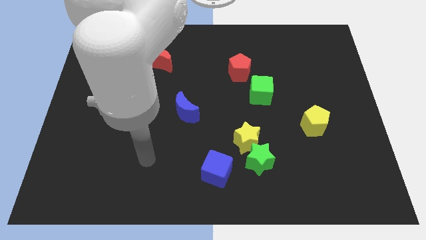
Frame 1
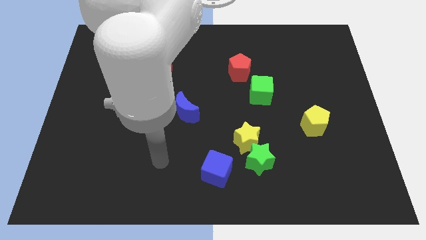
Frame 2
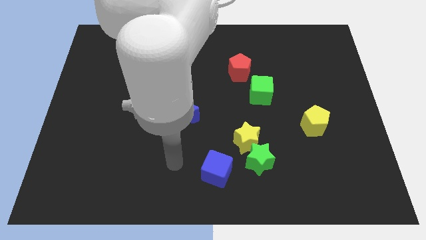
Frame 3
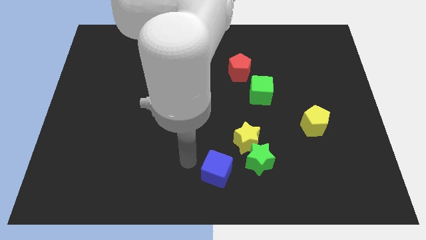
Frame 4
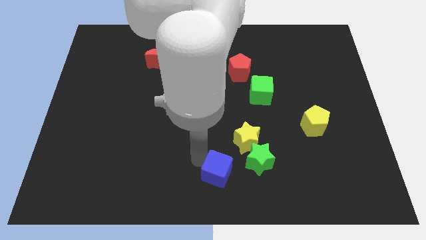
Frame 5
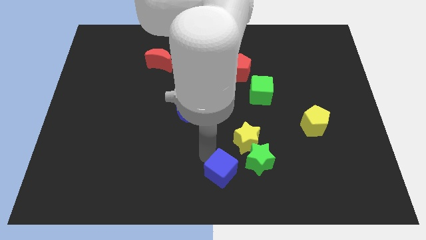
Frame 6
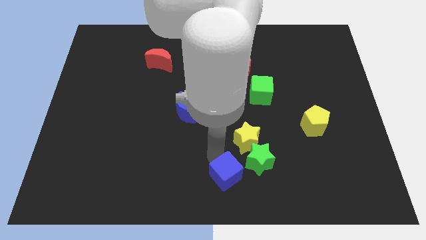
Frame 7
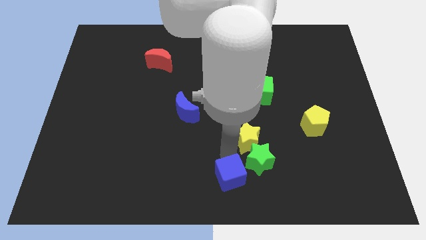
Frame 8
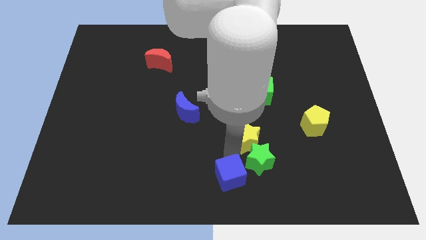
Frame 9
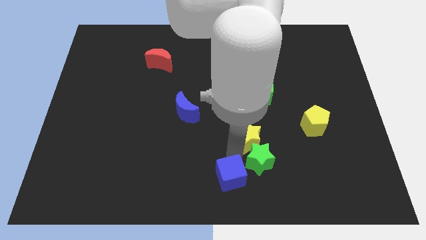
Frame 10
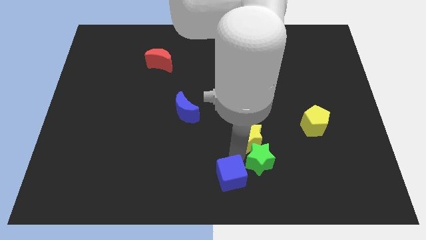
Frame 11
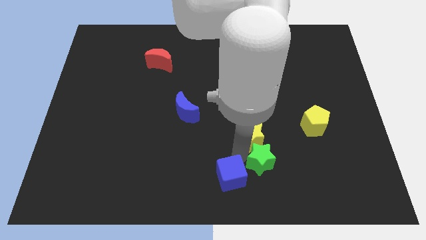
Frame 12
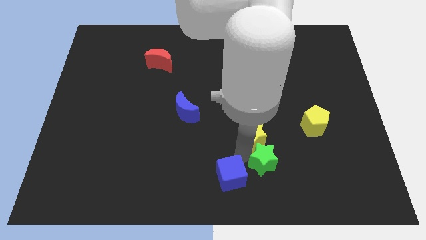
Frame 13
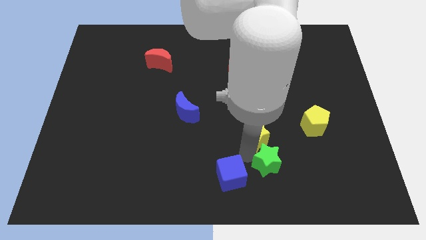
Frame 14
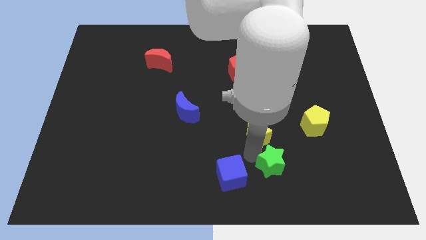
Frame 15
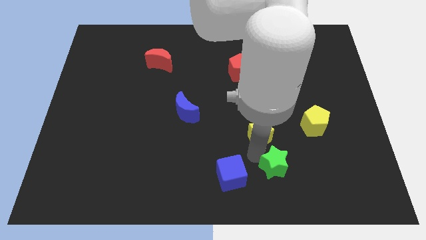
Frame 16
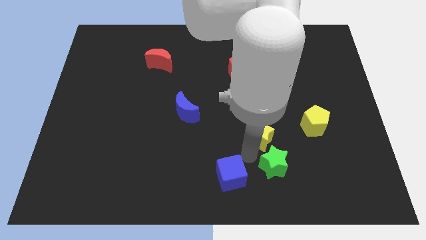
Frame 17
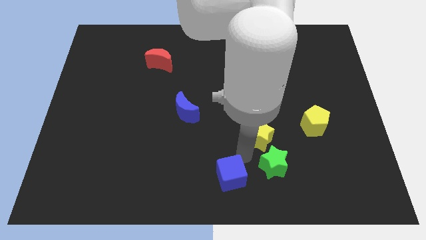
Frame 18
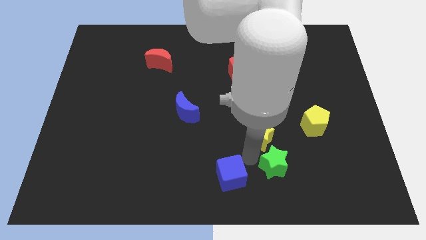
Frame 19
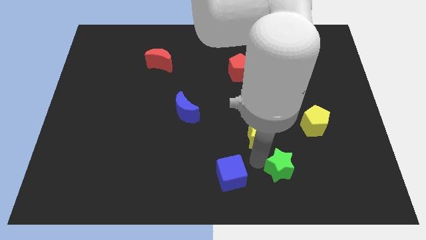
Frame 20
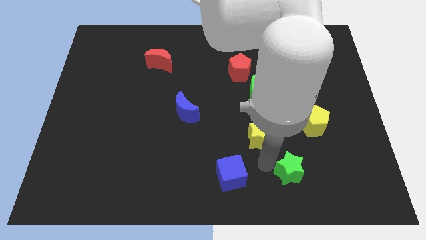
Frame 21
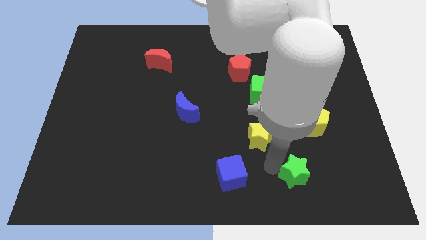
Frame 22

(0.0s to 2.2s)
move the green star away from the yellow star and blue cube

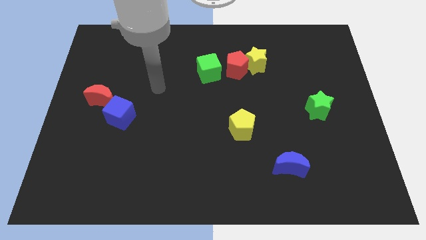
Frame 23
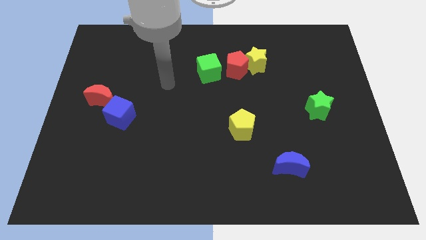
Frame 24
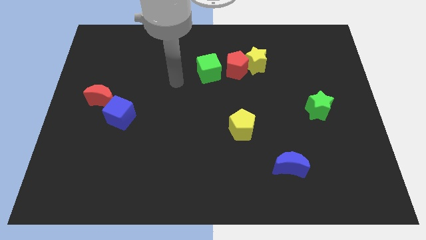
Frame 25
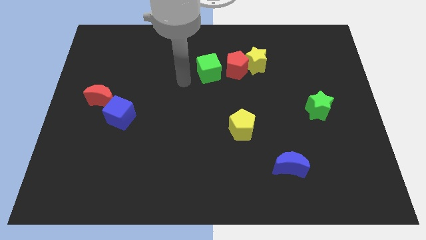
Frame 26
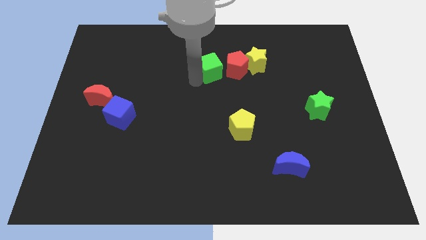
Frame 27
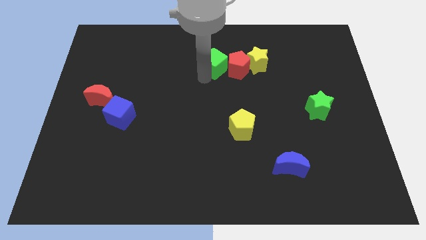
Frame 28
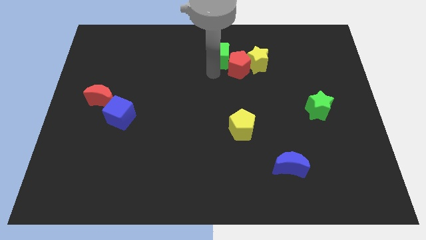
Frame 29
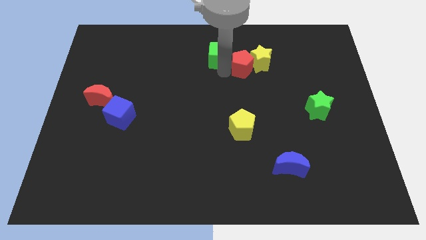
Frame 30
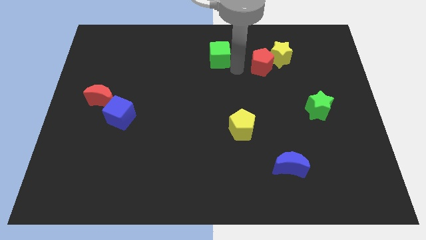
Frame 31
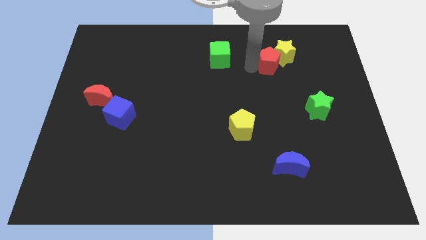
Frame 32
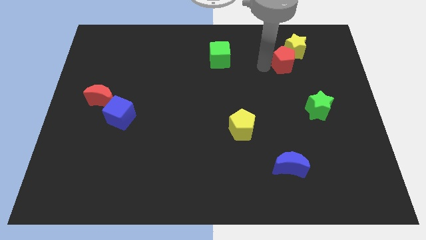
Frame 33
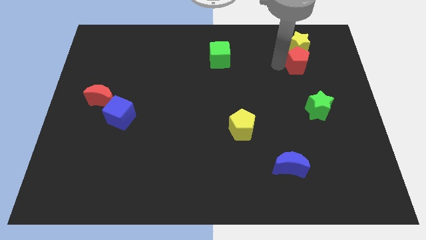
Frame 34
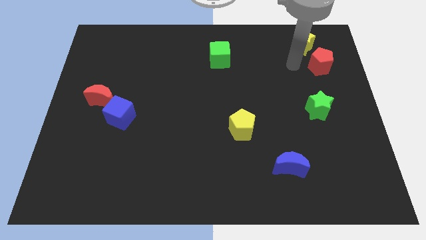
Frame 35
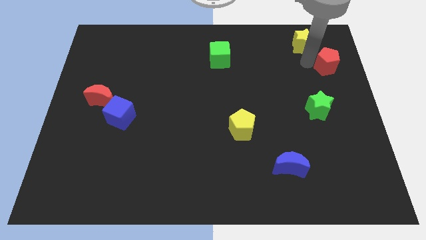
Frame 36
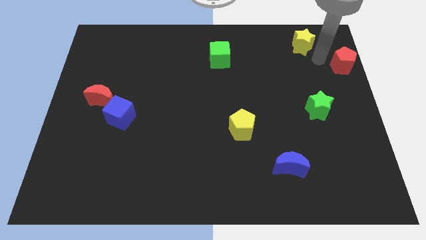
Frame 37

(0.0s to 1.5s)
pull the yellow star apart from the red pentagon

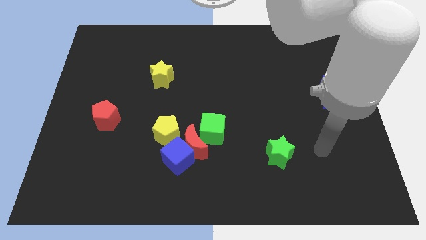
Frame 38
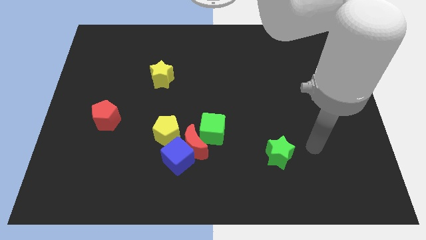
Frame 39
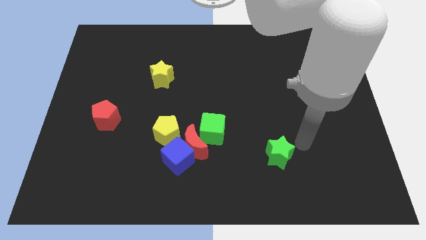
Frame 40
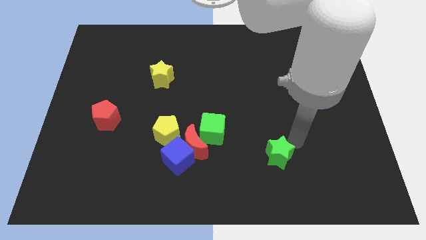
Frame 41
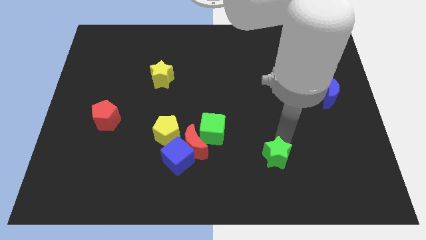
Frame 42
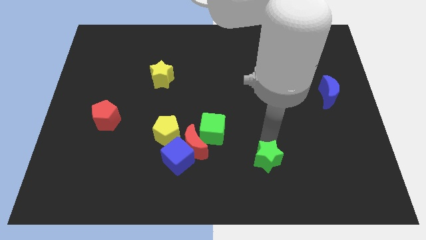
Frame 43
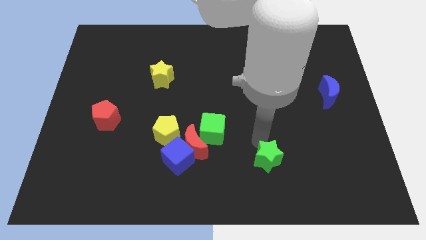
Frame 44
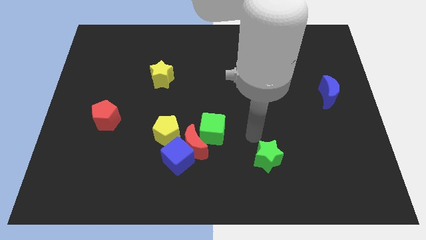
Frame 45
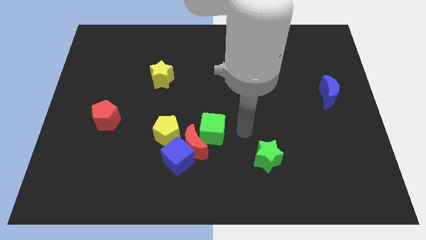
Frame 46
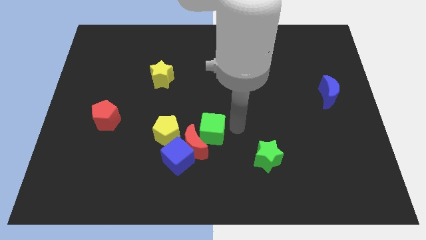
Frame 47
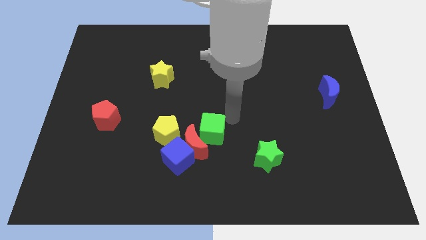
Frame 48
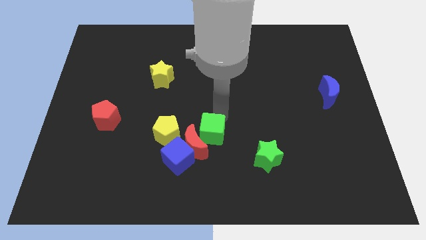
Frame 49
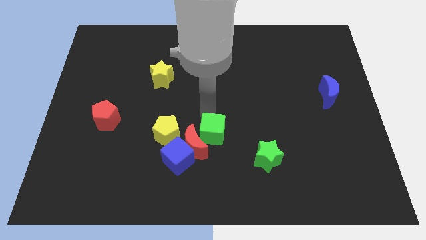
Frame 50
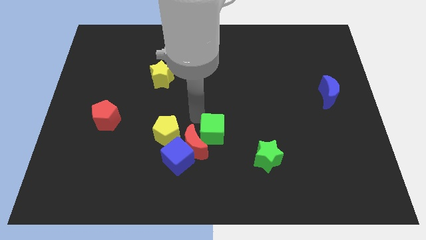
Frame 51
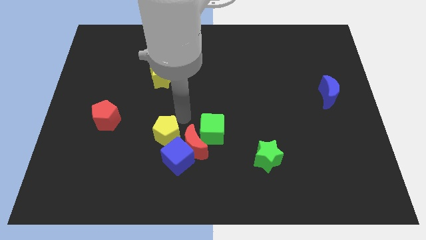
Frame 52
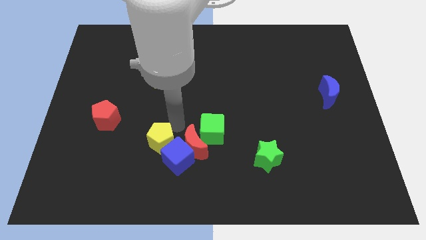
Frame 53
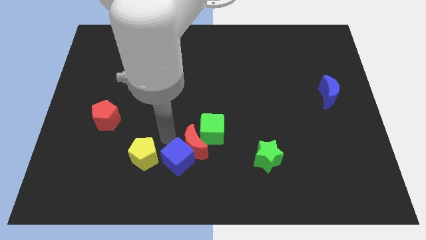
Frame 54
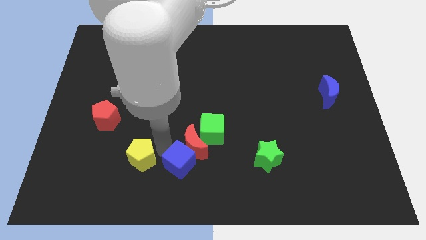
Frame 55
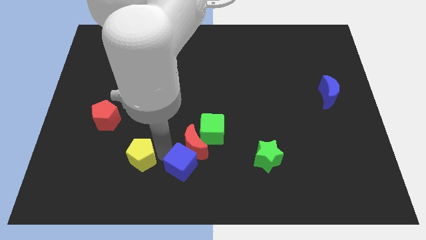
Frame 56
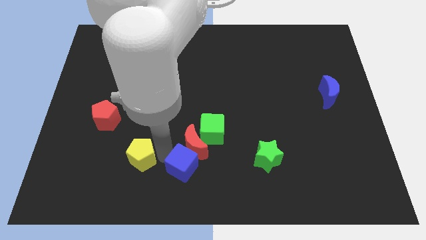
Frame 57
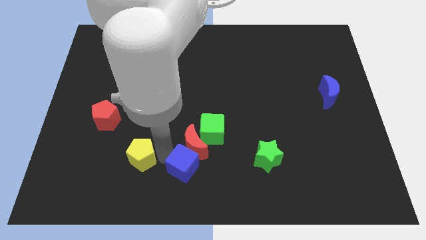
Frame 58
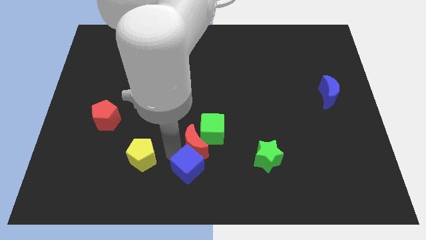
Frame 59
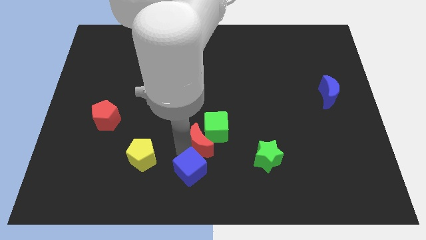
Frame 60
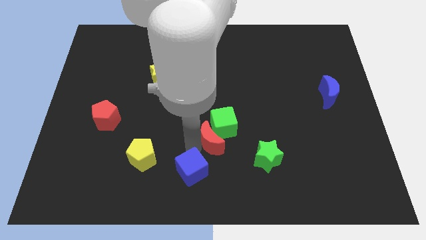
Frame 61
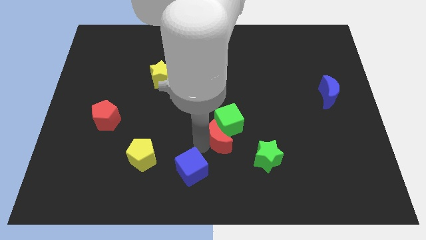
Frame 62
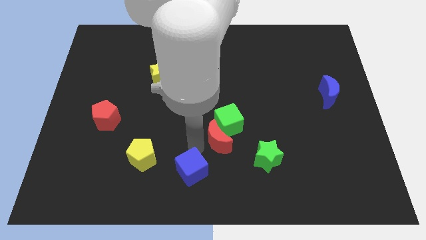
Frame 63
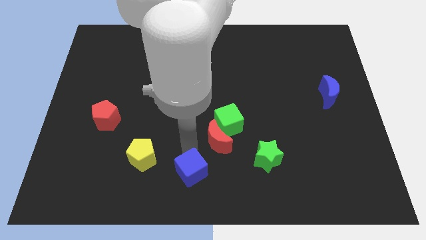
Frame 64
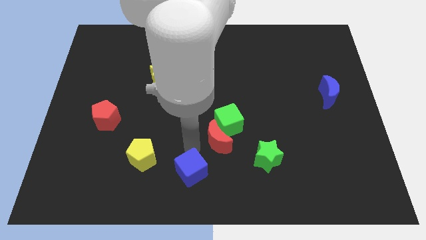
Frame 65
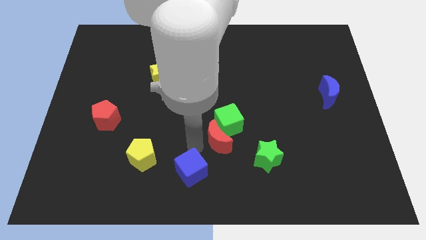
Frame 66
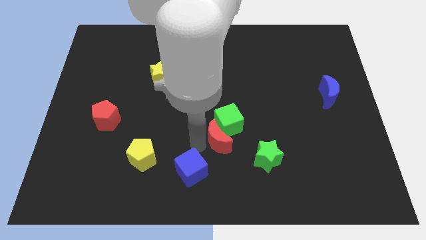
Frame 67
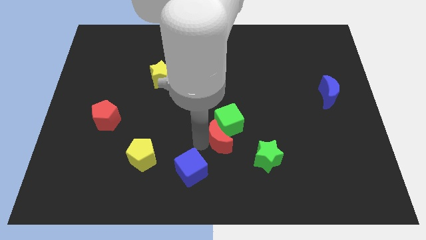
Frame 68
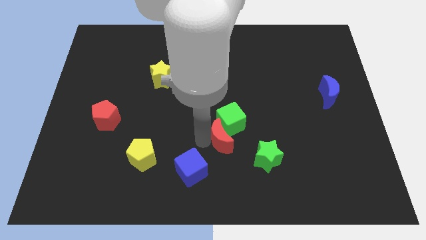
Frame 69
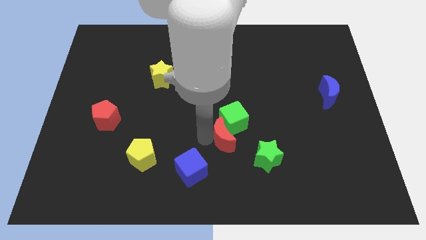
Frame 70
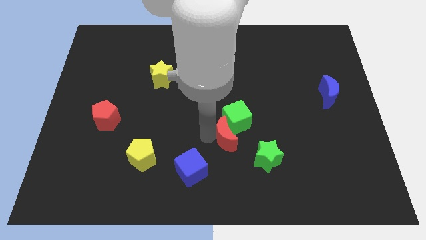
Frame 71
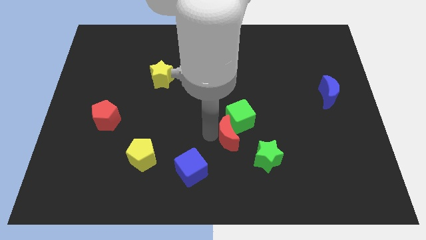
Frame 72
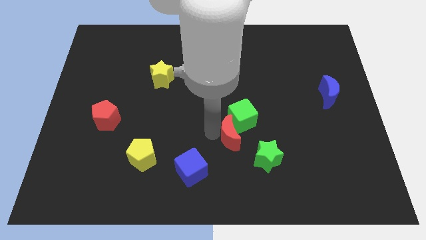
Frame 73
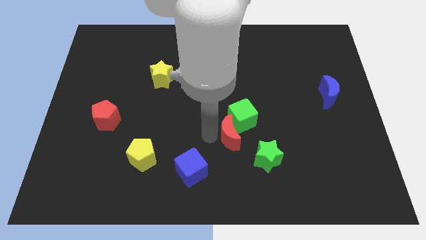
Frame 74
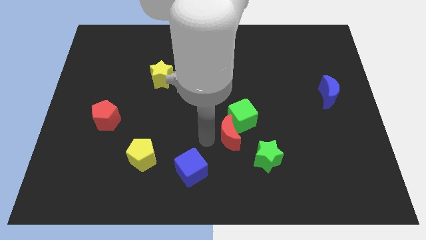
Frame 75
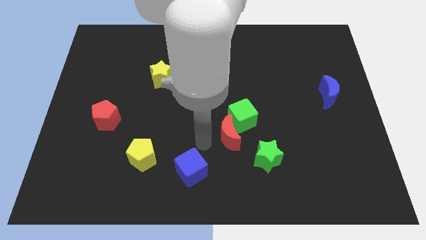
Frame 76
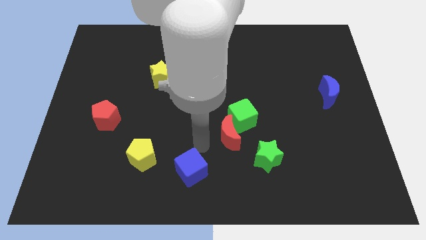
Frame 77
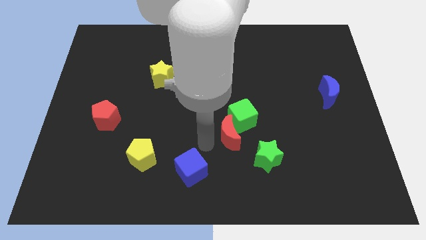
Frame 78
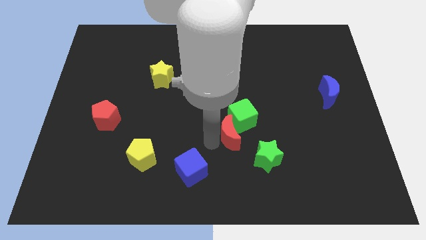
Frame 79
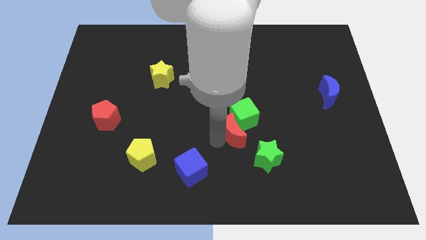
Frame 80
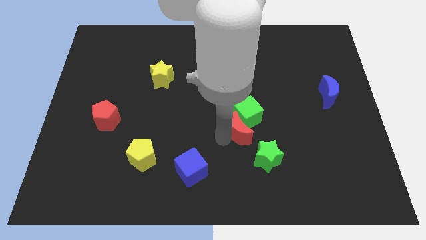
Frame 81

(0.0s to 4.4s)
pull the red moon apart from the clump

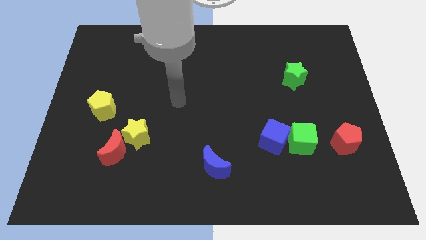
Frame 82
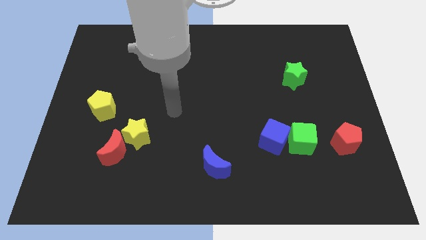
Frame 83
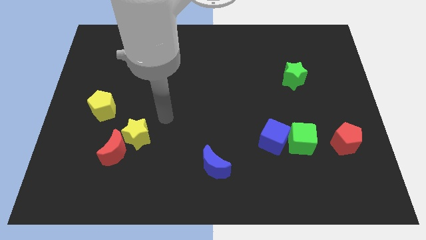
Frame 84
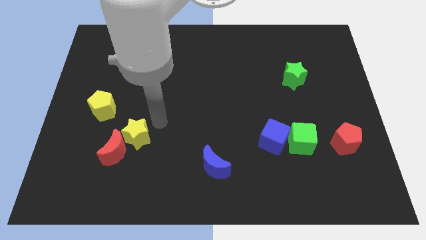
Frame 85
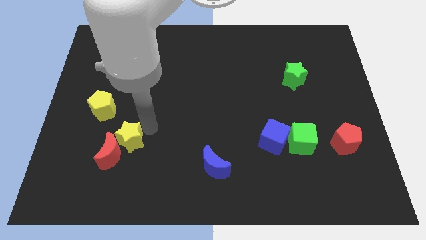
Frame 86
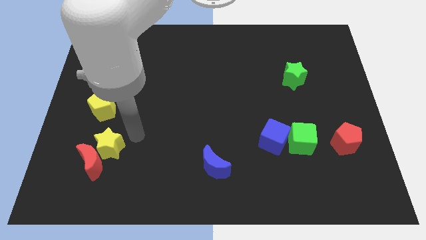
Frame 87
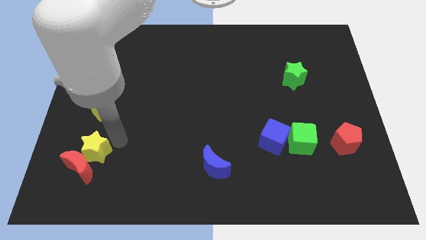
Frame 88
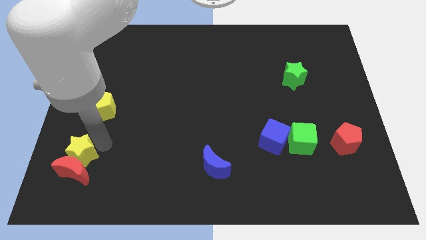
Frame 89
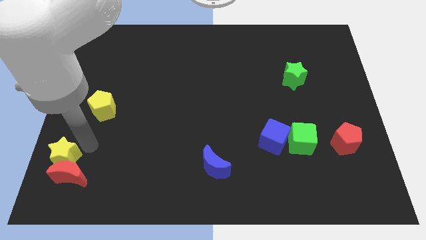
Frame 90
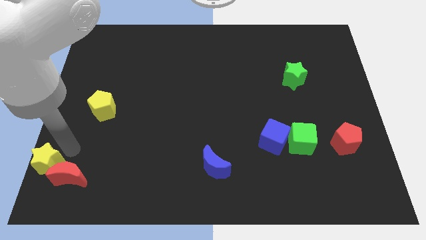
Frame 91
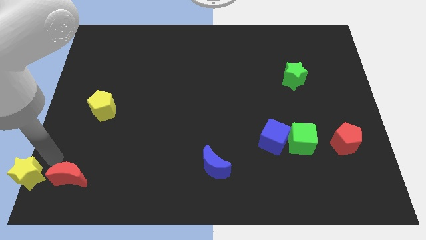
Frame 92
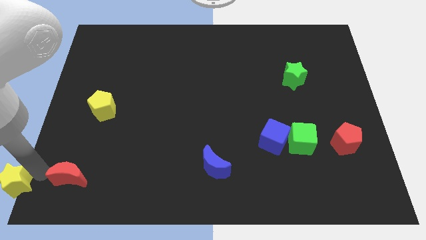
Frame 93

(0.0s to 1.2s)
pull the red moon apart from the yellow star

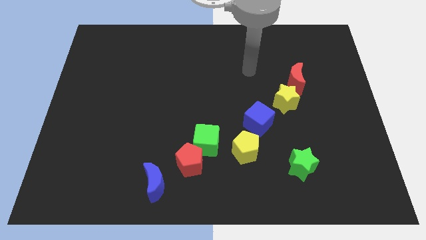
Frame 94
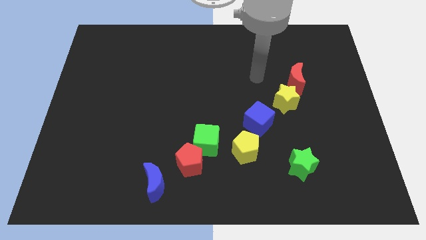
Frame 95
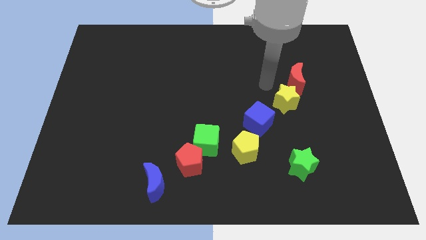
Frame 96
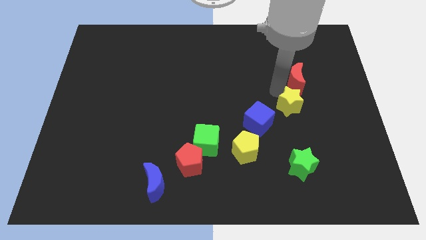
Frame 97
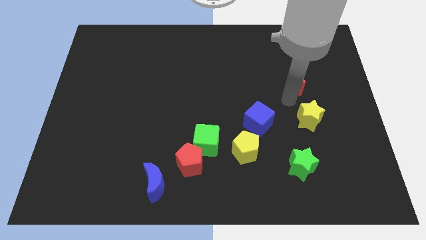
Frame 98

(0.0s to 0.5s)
separate the red moon from the yellow star
